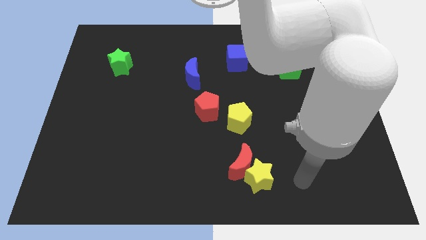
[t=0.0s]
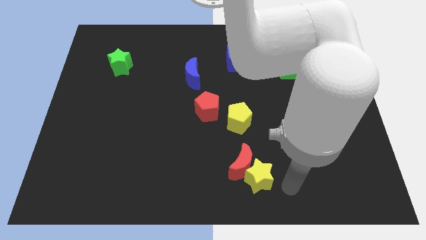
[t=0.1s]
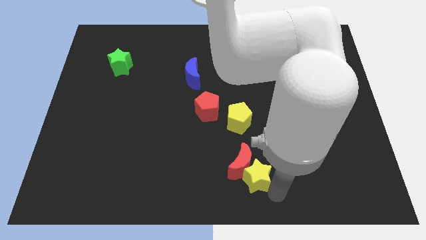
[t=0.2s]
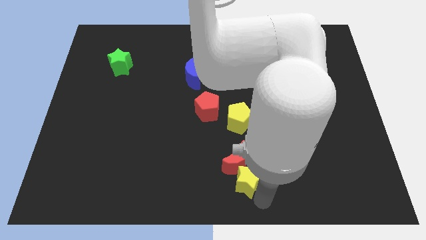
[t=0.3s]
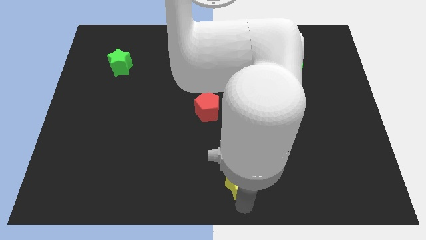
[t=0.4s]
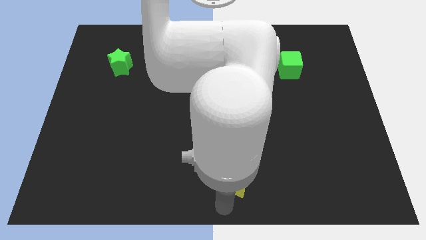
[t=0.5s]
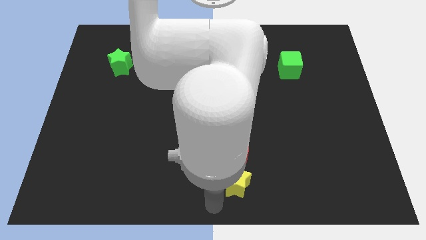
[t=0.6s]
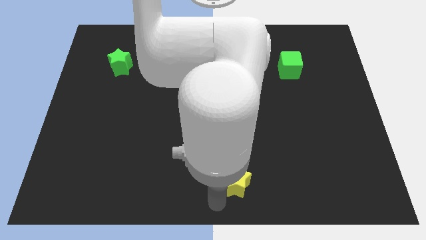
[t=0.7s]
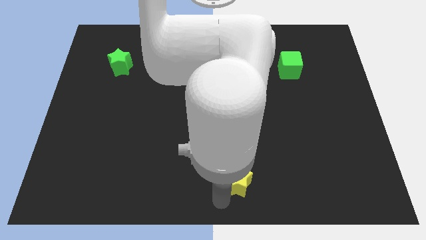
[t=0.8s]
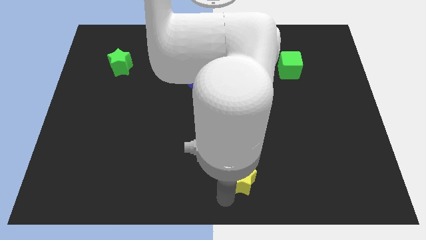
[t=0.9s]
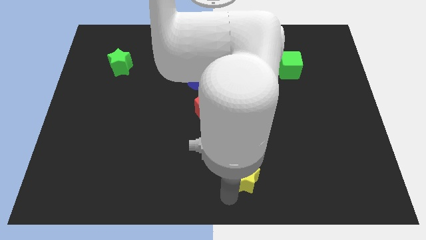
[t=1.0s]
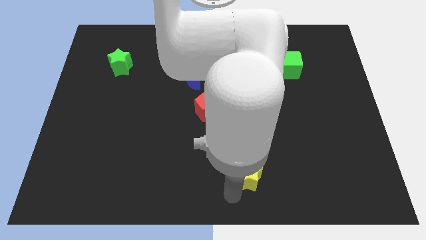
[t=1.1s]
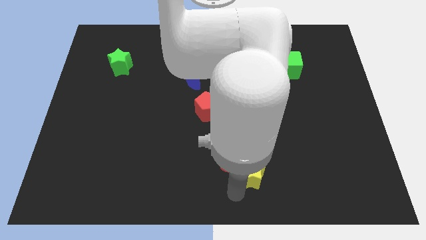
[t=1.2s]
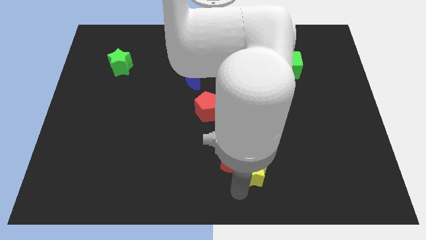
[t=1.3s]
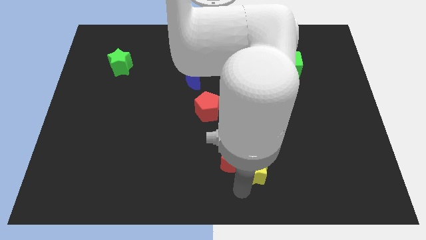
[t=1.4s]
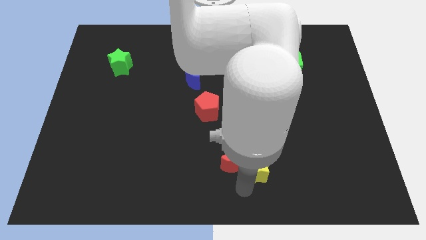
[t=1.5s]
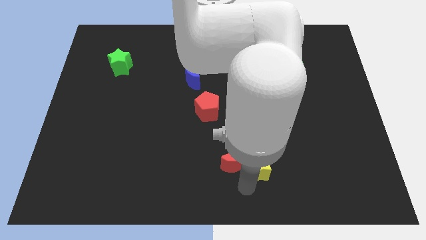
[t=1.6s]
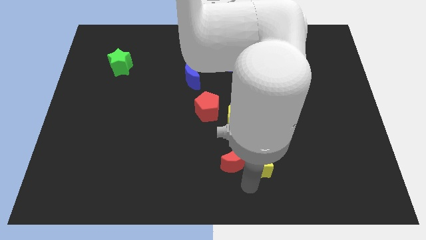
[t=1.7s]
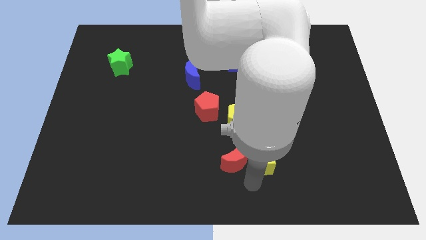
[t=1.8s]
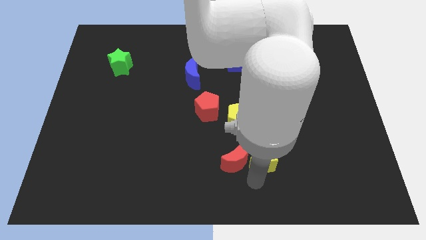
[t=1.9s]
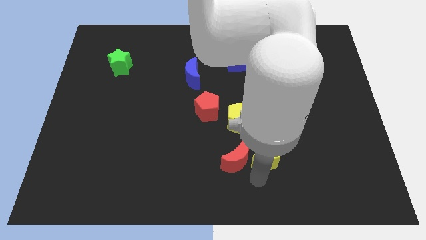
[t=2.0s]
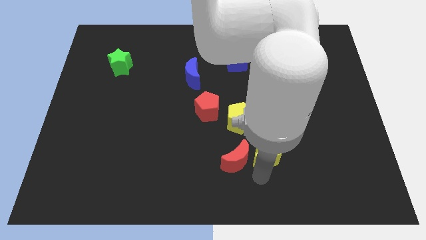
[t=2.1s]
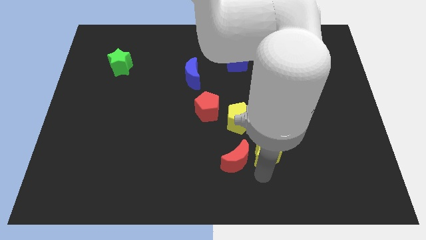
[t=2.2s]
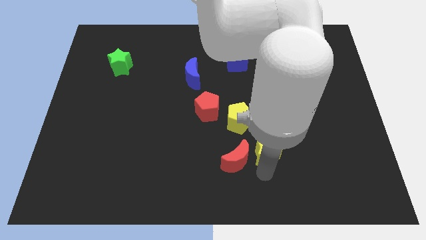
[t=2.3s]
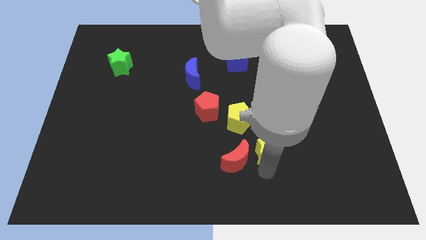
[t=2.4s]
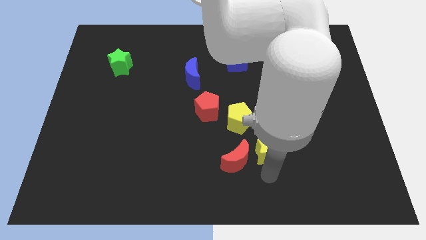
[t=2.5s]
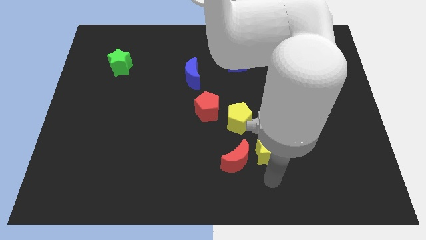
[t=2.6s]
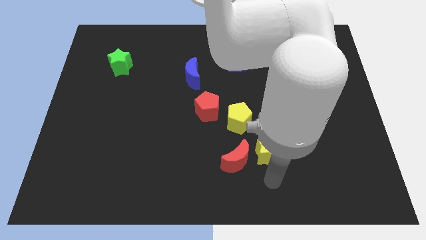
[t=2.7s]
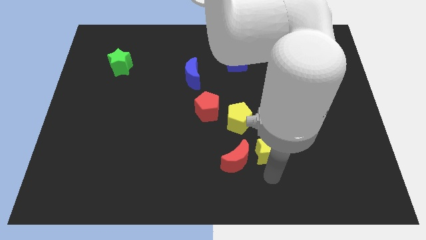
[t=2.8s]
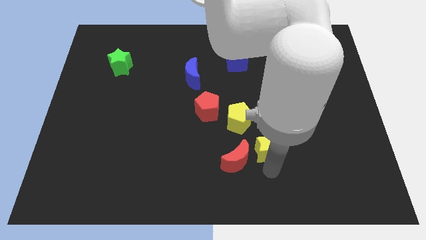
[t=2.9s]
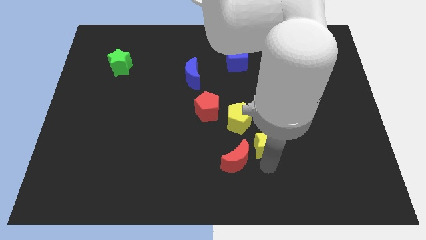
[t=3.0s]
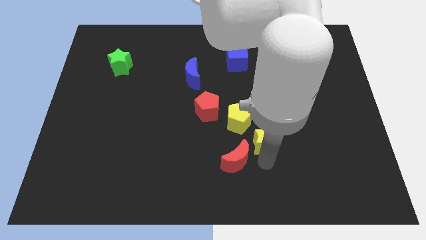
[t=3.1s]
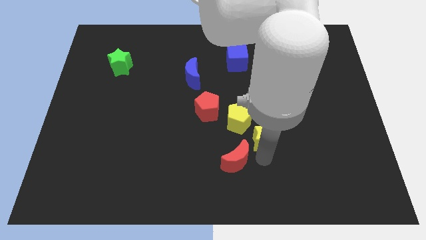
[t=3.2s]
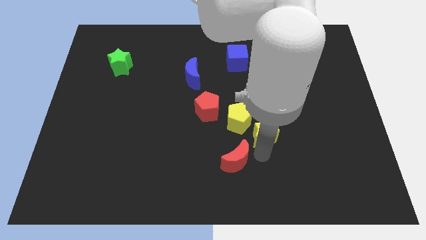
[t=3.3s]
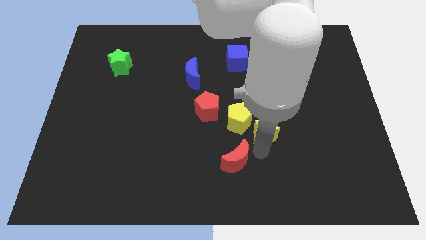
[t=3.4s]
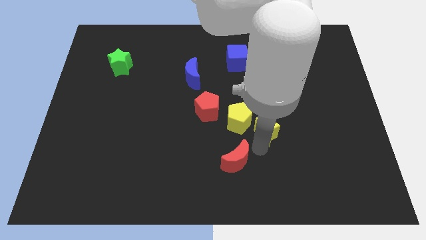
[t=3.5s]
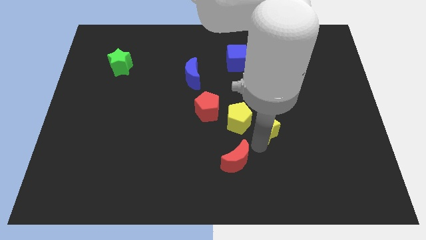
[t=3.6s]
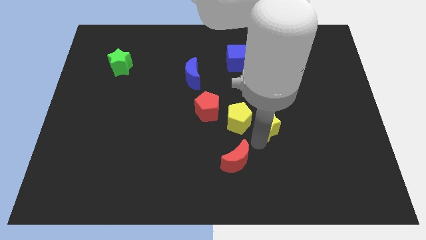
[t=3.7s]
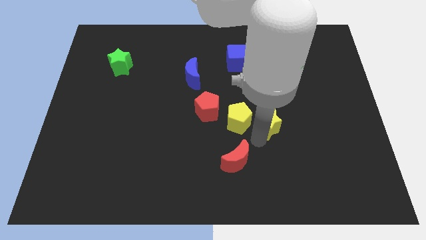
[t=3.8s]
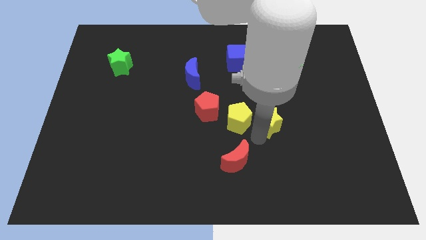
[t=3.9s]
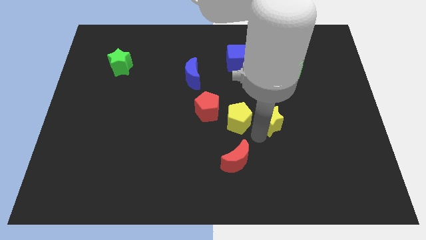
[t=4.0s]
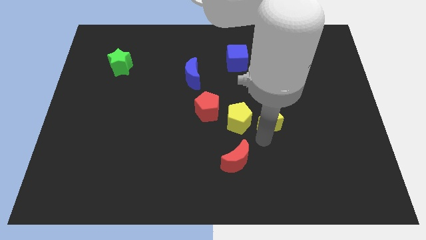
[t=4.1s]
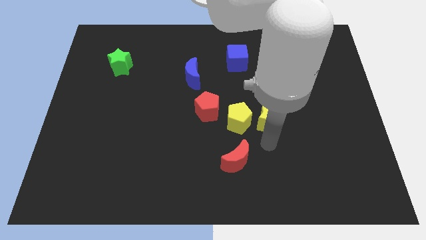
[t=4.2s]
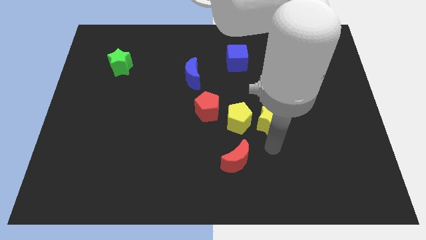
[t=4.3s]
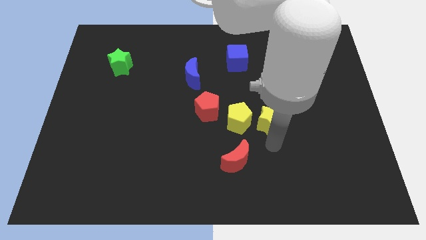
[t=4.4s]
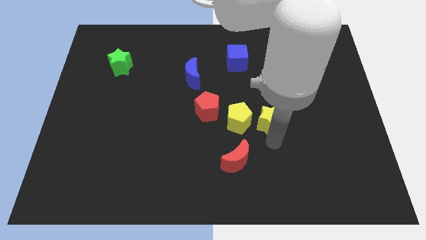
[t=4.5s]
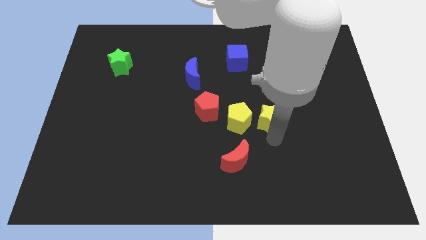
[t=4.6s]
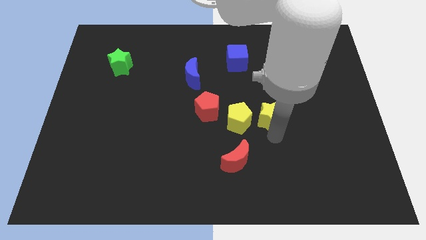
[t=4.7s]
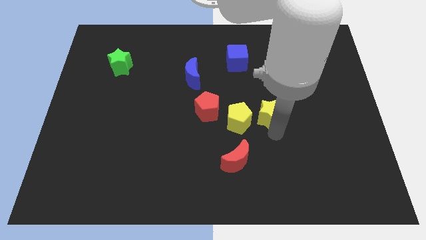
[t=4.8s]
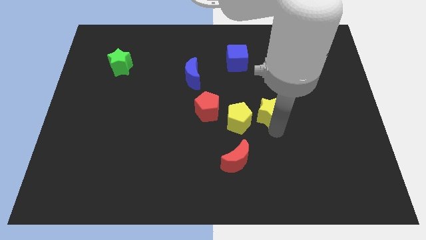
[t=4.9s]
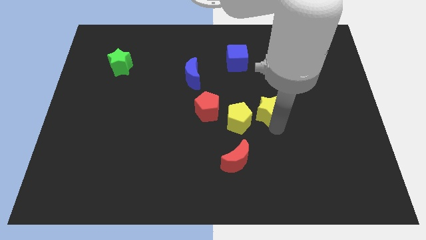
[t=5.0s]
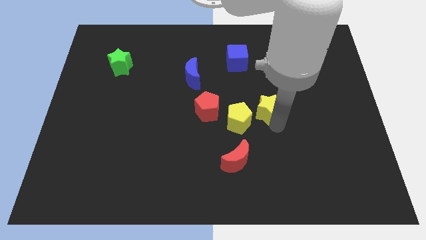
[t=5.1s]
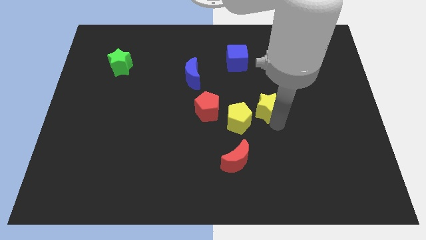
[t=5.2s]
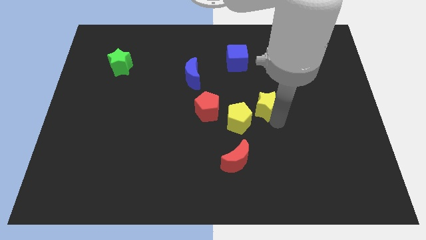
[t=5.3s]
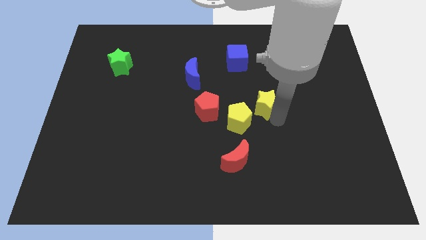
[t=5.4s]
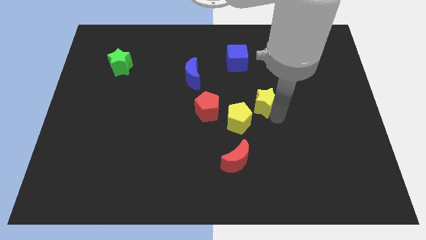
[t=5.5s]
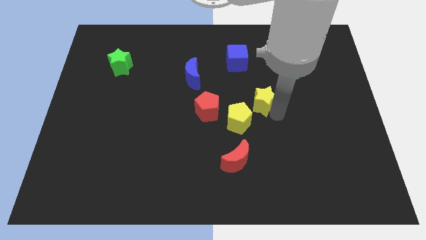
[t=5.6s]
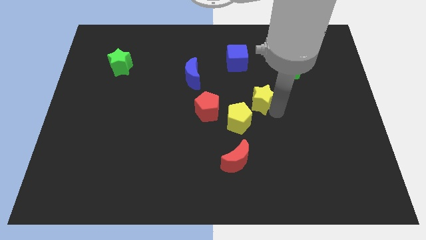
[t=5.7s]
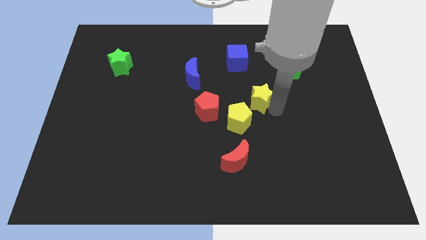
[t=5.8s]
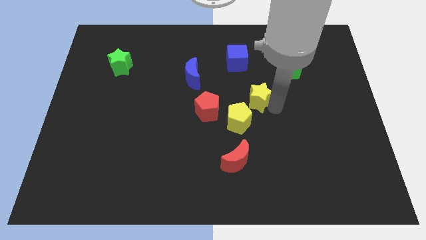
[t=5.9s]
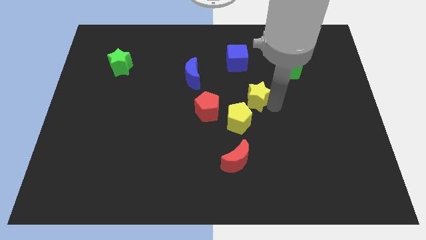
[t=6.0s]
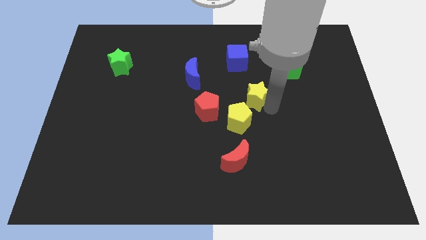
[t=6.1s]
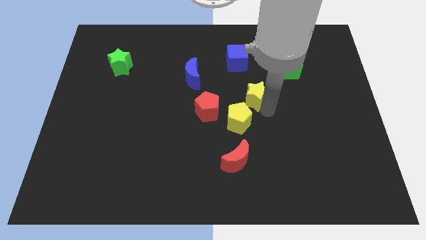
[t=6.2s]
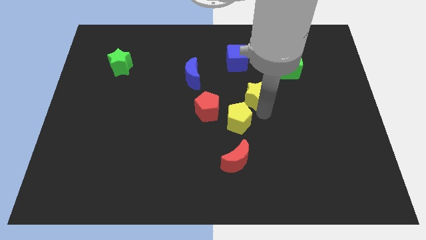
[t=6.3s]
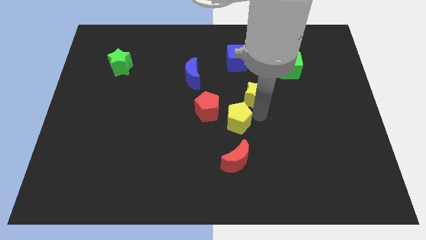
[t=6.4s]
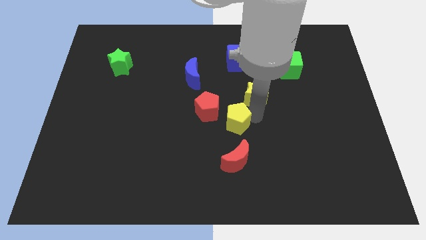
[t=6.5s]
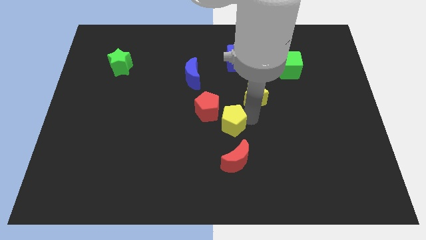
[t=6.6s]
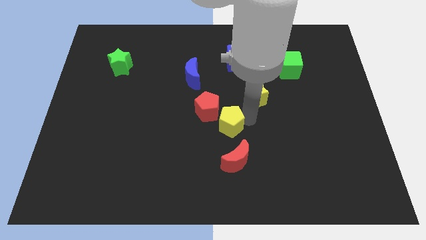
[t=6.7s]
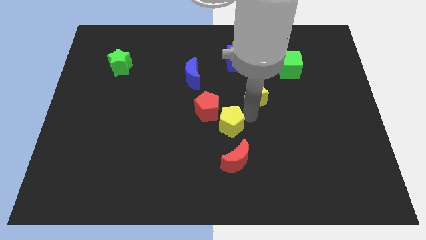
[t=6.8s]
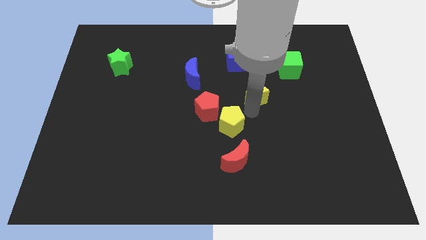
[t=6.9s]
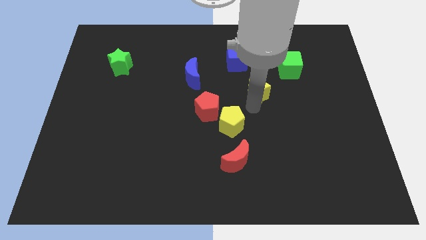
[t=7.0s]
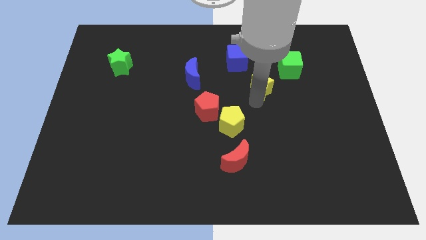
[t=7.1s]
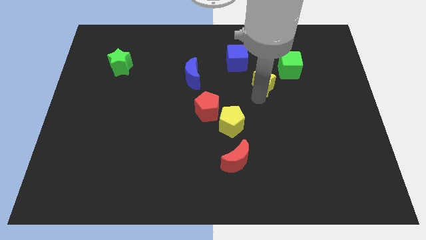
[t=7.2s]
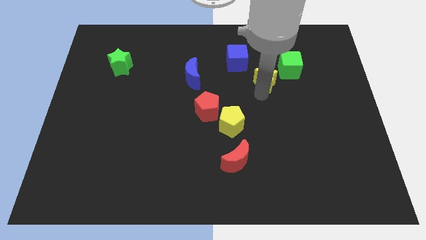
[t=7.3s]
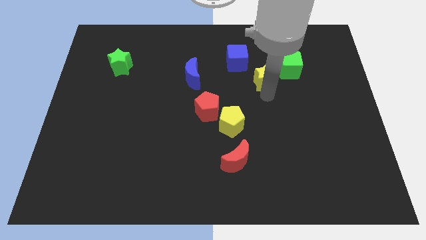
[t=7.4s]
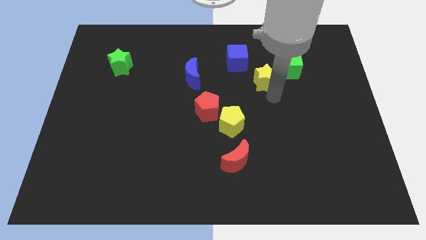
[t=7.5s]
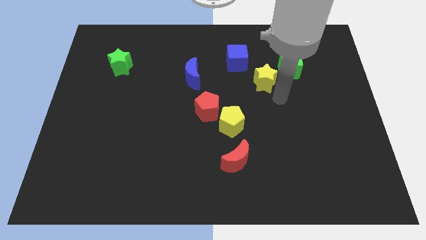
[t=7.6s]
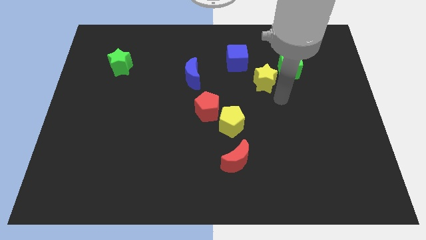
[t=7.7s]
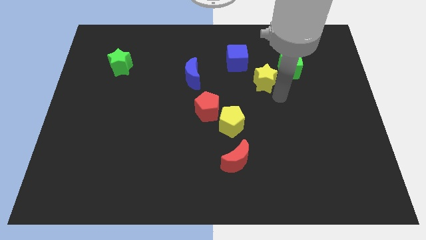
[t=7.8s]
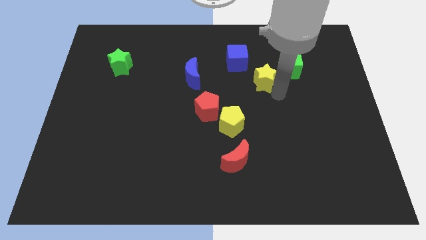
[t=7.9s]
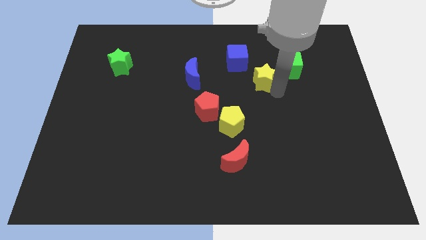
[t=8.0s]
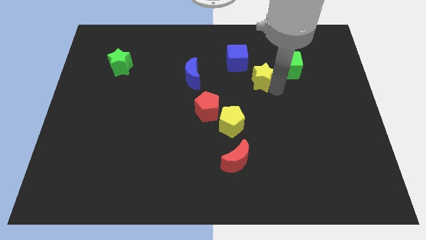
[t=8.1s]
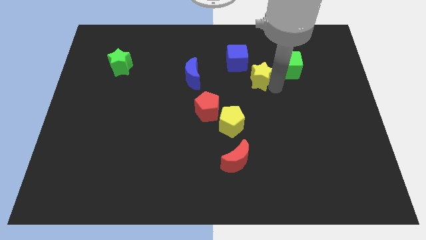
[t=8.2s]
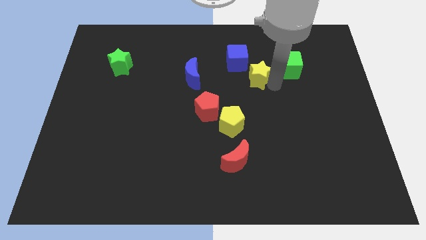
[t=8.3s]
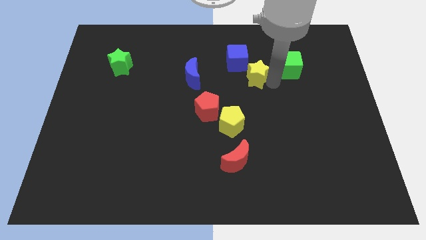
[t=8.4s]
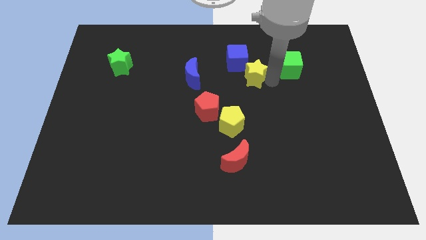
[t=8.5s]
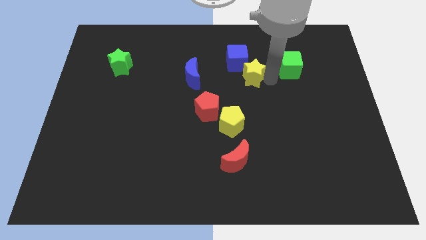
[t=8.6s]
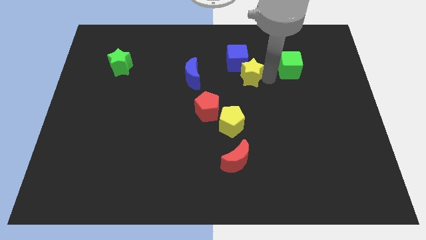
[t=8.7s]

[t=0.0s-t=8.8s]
move the yellow star towards the blue cube
